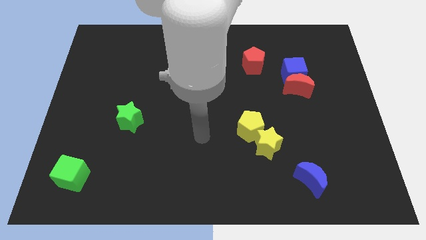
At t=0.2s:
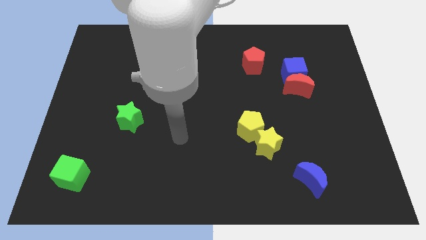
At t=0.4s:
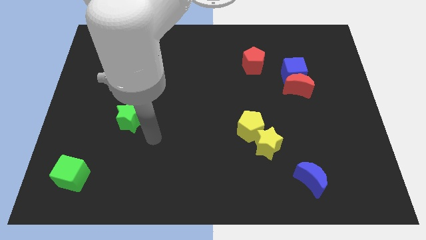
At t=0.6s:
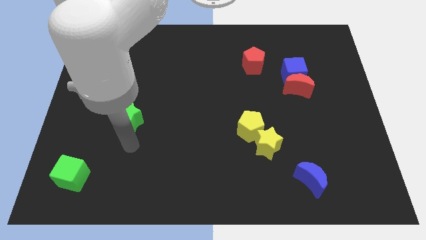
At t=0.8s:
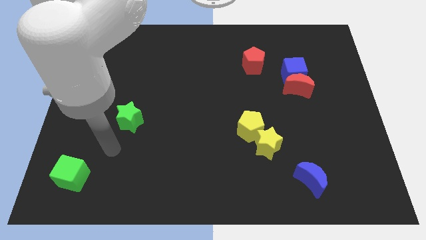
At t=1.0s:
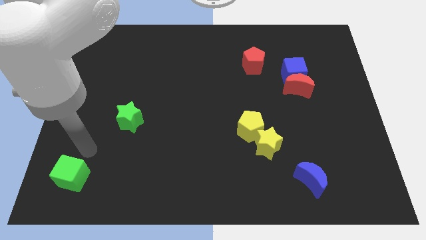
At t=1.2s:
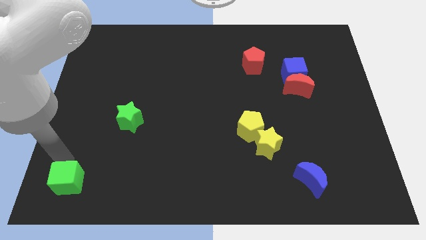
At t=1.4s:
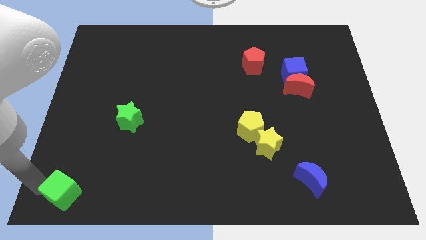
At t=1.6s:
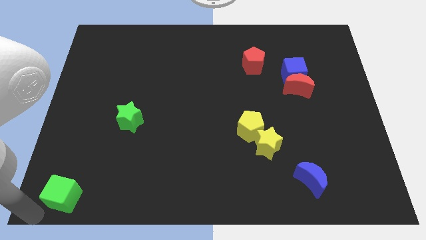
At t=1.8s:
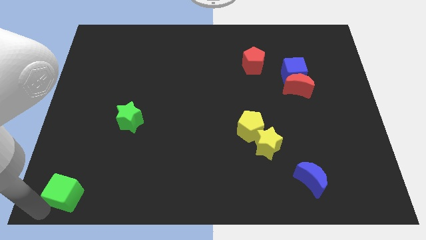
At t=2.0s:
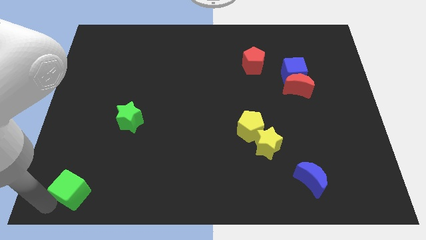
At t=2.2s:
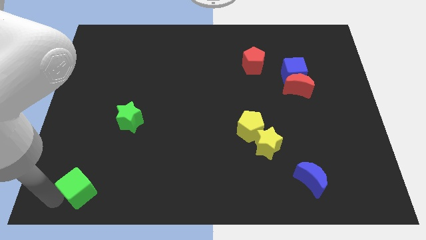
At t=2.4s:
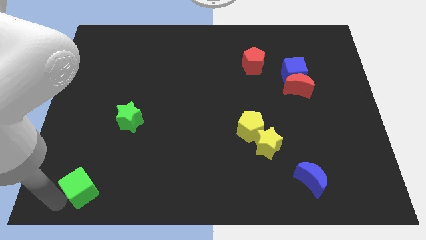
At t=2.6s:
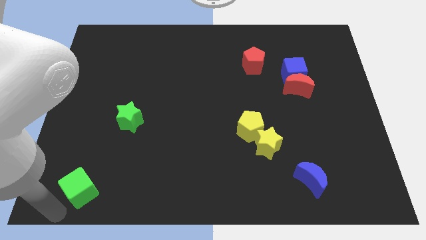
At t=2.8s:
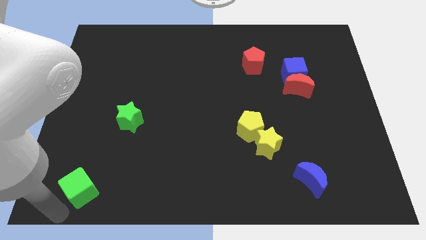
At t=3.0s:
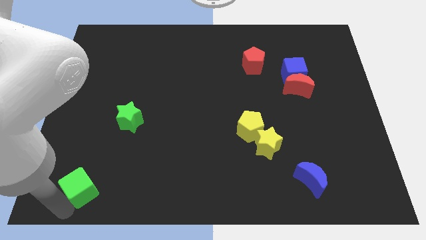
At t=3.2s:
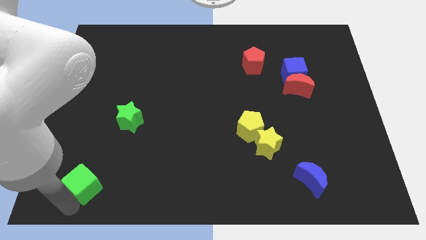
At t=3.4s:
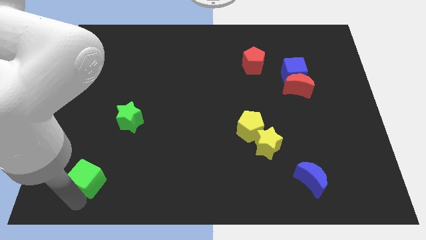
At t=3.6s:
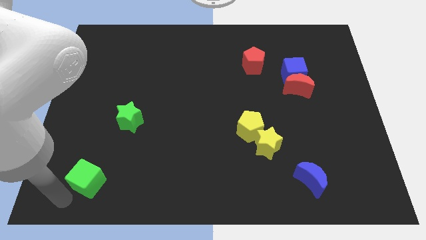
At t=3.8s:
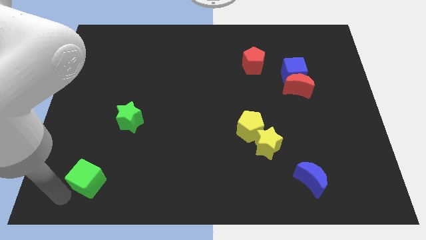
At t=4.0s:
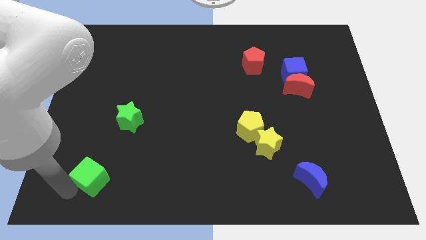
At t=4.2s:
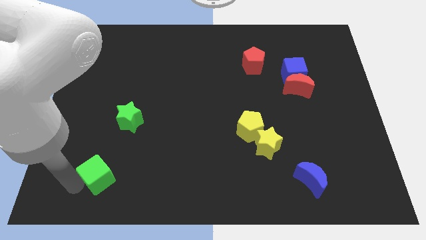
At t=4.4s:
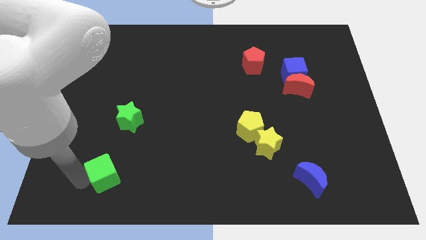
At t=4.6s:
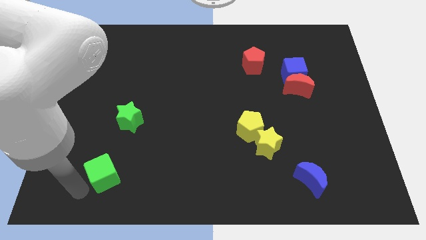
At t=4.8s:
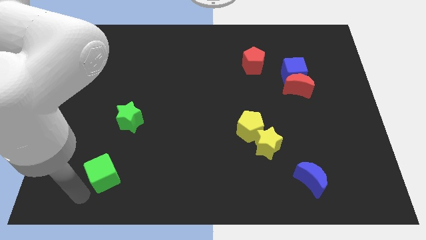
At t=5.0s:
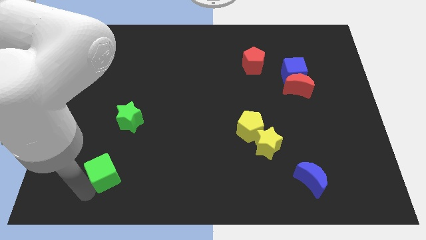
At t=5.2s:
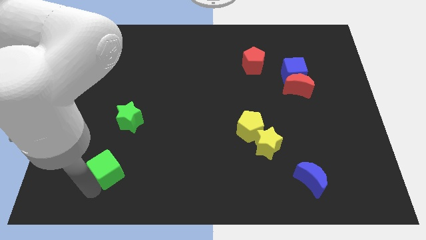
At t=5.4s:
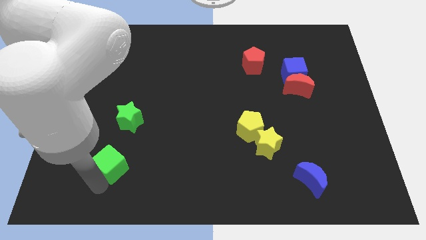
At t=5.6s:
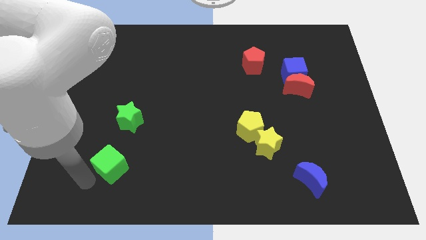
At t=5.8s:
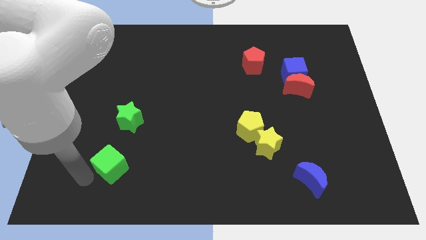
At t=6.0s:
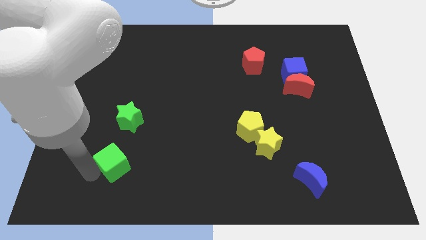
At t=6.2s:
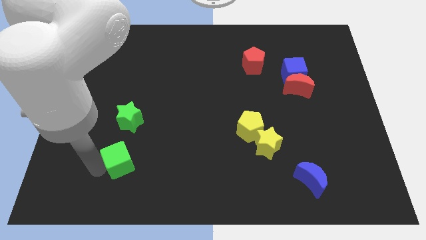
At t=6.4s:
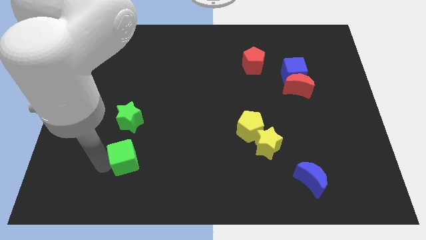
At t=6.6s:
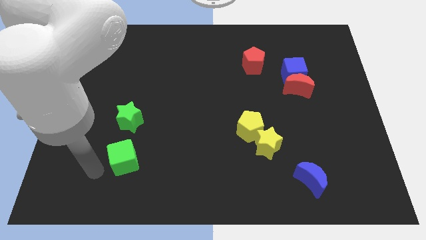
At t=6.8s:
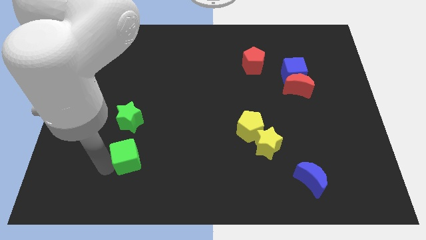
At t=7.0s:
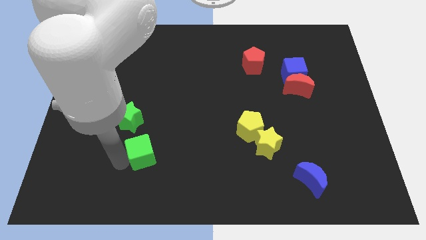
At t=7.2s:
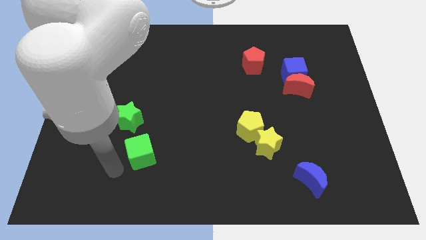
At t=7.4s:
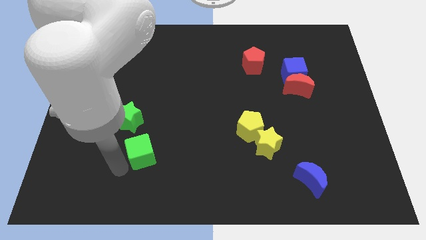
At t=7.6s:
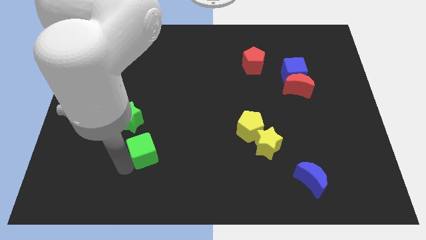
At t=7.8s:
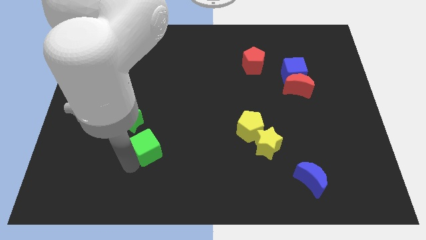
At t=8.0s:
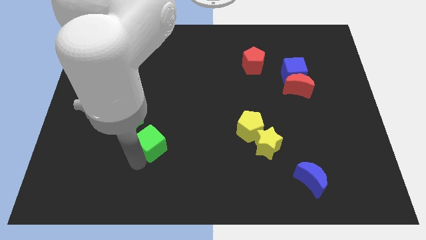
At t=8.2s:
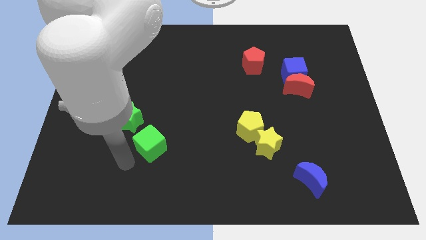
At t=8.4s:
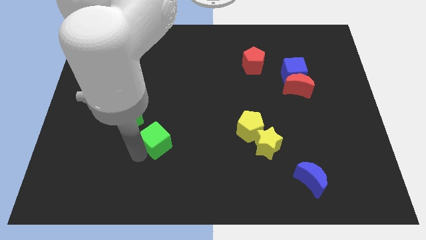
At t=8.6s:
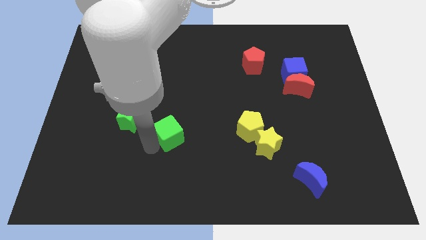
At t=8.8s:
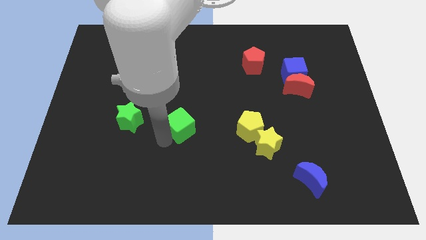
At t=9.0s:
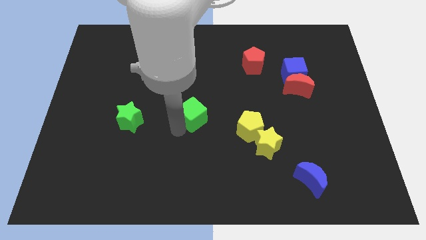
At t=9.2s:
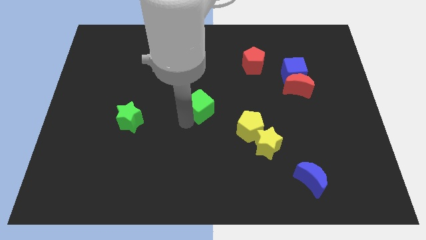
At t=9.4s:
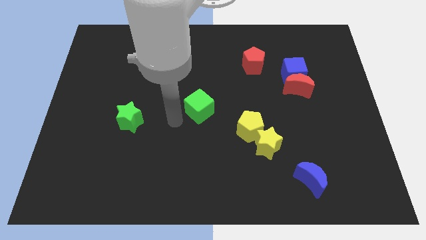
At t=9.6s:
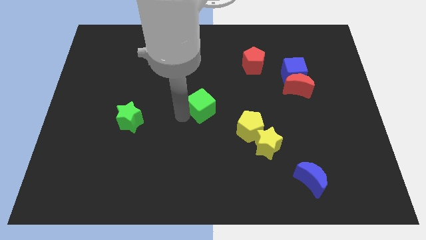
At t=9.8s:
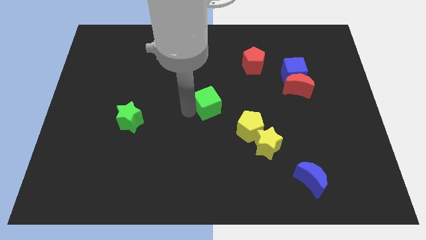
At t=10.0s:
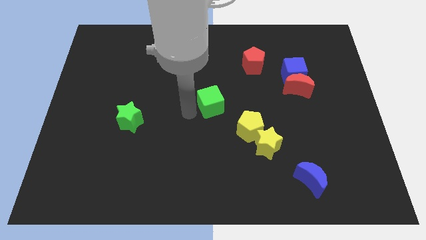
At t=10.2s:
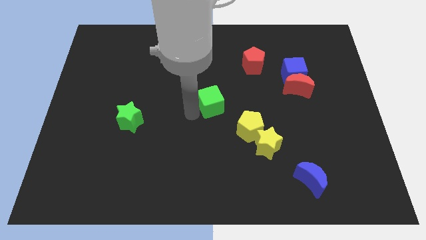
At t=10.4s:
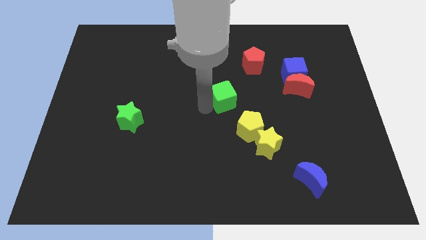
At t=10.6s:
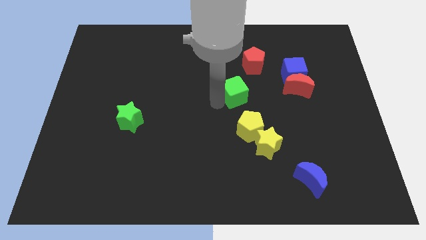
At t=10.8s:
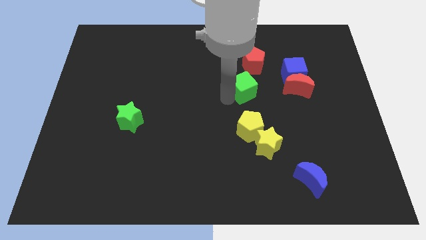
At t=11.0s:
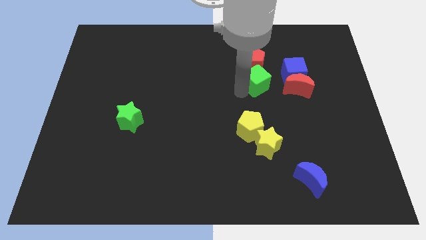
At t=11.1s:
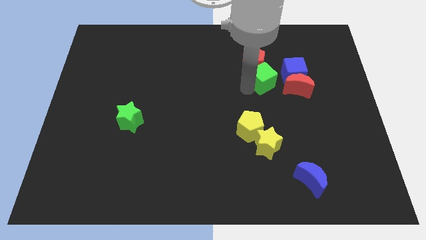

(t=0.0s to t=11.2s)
move the green cube to the top left of the red moon

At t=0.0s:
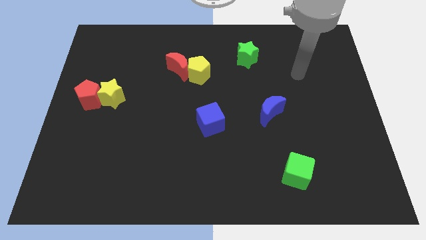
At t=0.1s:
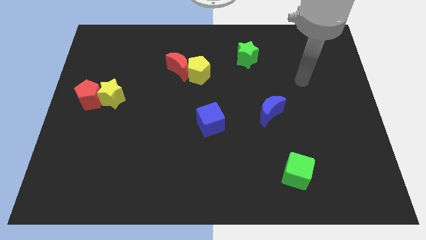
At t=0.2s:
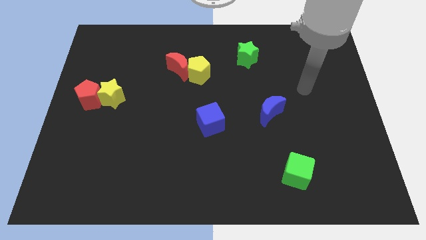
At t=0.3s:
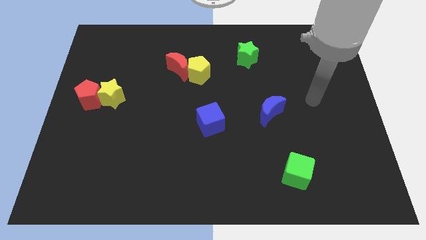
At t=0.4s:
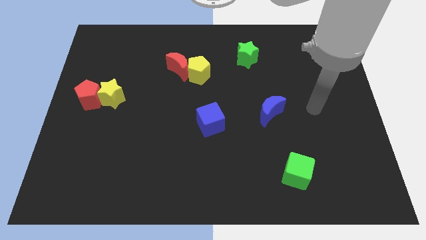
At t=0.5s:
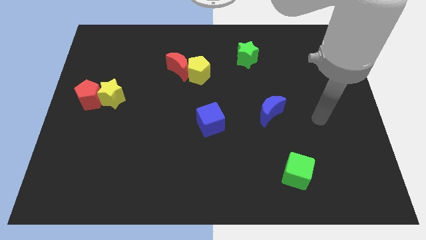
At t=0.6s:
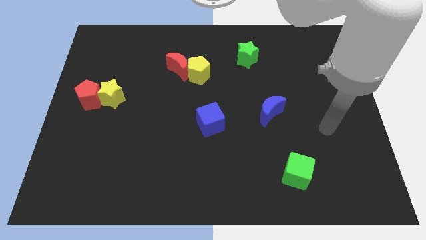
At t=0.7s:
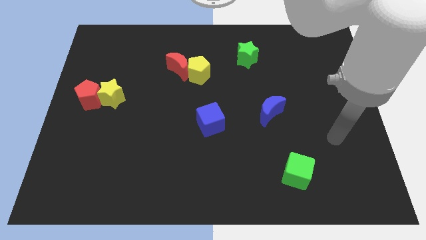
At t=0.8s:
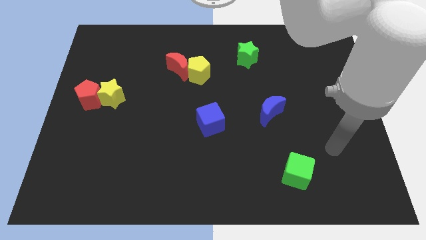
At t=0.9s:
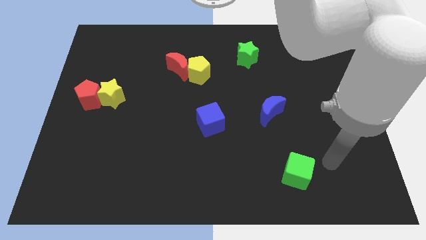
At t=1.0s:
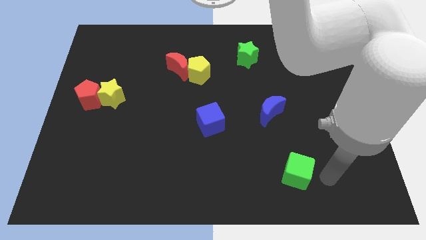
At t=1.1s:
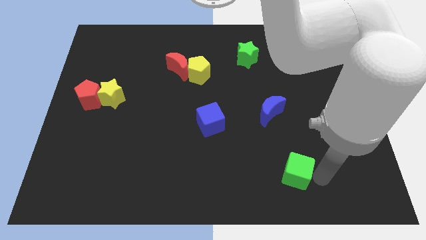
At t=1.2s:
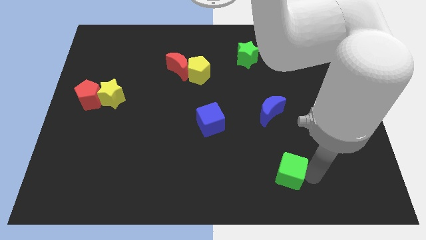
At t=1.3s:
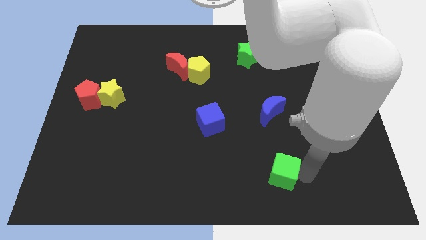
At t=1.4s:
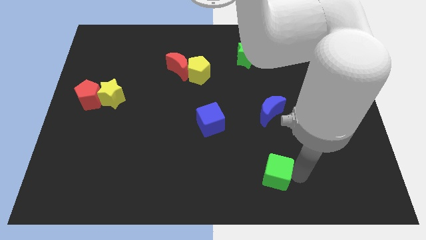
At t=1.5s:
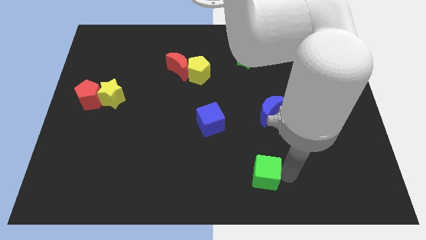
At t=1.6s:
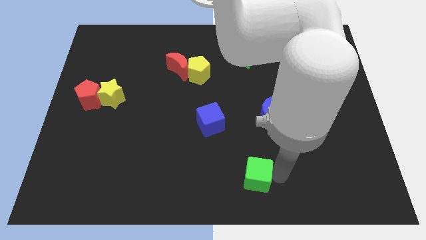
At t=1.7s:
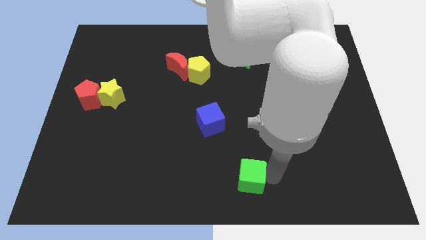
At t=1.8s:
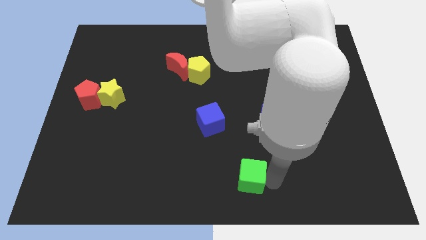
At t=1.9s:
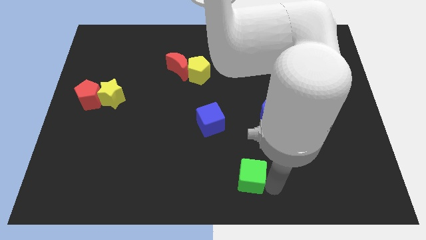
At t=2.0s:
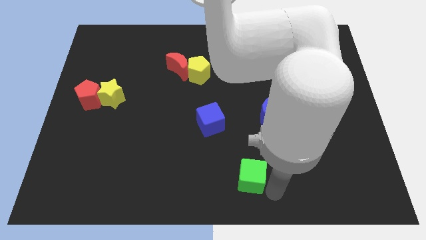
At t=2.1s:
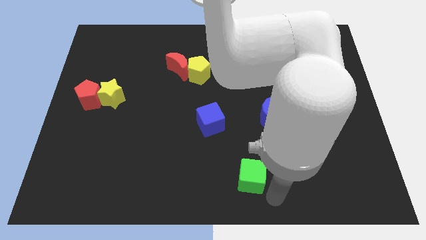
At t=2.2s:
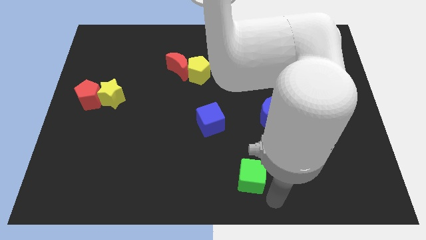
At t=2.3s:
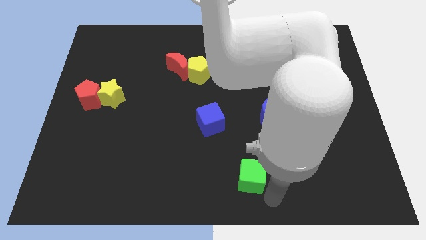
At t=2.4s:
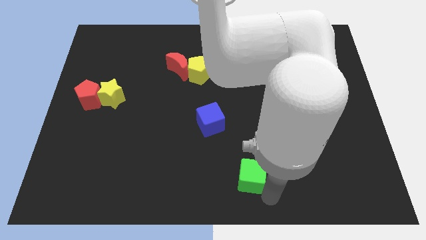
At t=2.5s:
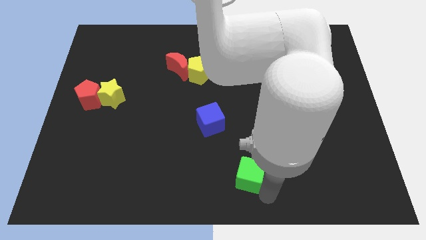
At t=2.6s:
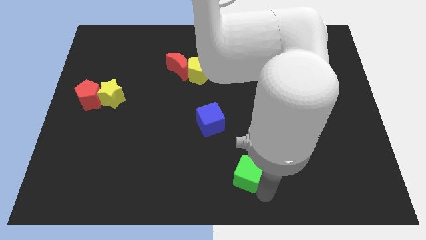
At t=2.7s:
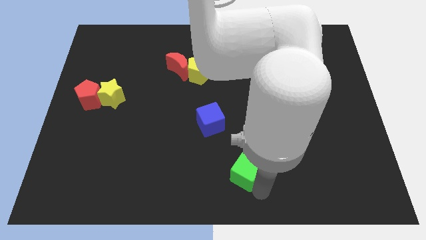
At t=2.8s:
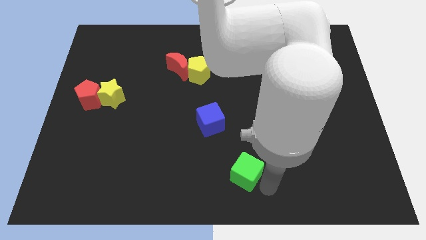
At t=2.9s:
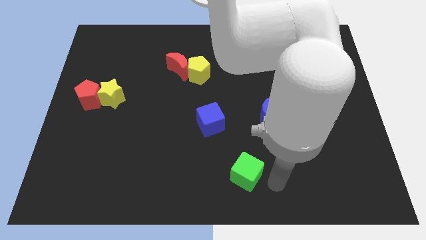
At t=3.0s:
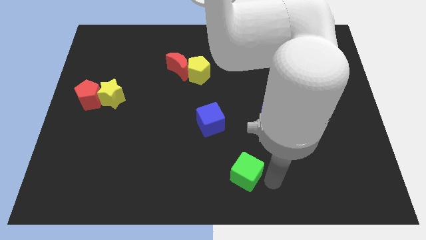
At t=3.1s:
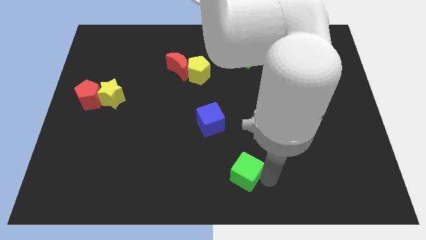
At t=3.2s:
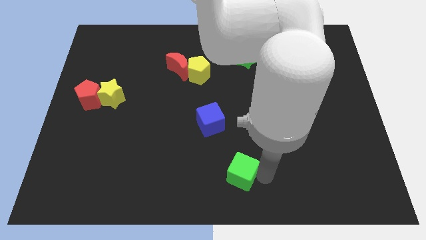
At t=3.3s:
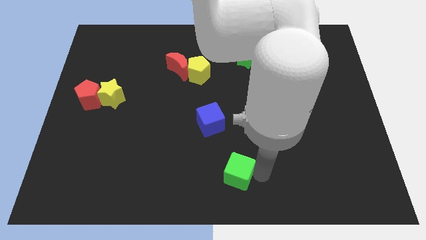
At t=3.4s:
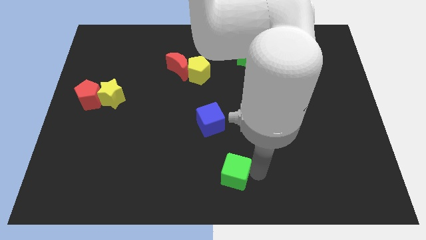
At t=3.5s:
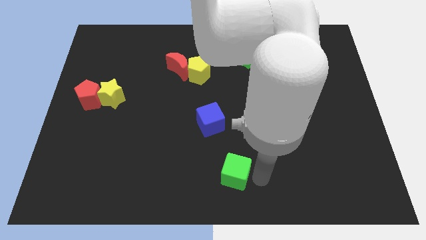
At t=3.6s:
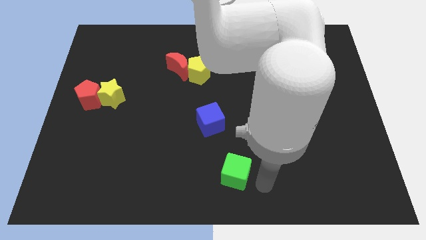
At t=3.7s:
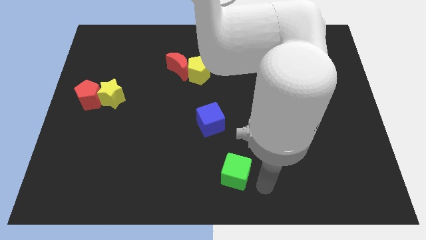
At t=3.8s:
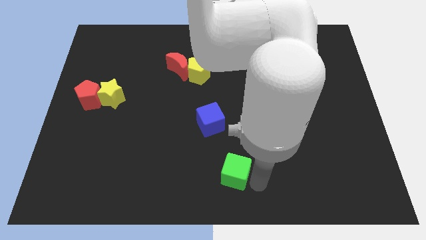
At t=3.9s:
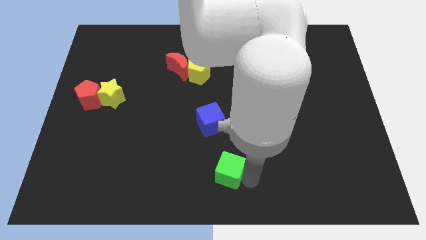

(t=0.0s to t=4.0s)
push the green cube to the bottom side of the blue cube
